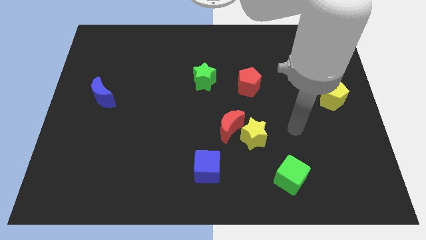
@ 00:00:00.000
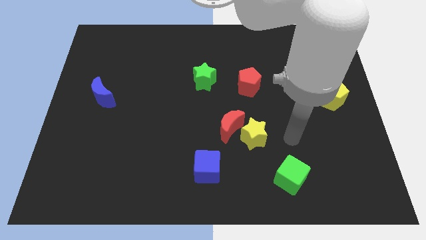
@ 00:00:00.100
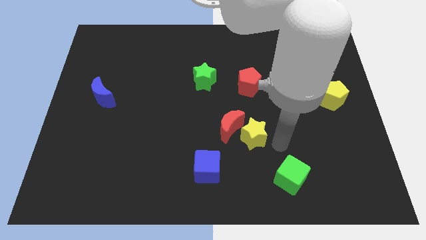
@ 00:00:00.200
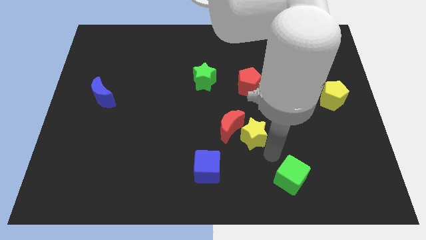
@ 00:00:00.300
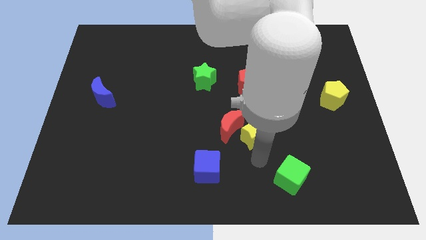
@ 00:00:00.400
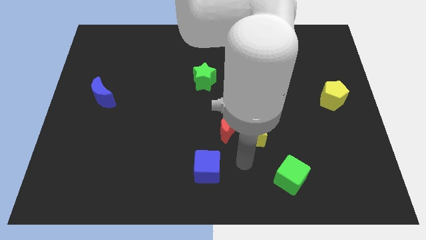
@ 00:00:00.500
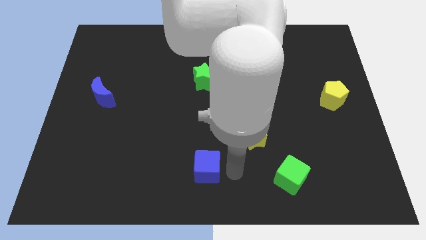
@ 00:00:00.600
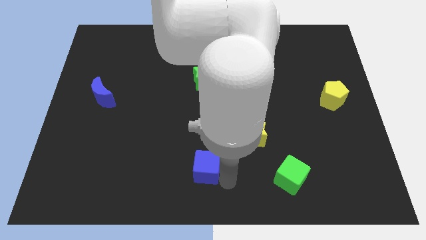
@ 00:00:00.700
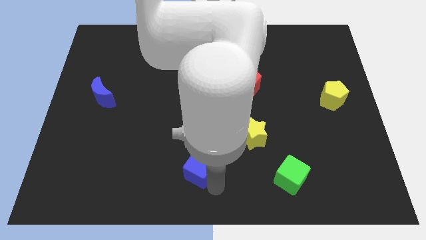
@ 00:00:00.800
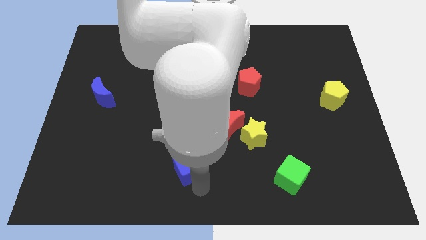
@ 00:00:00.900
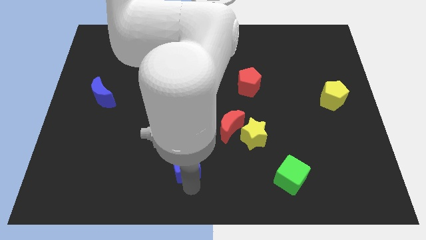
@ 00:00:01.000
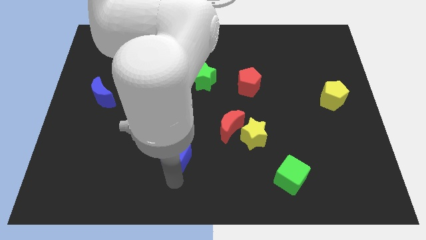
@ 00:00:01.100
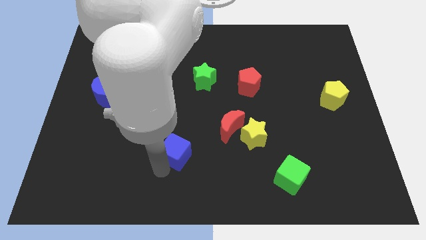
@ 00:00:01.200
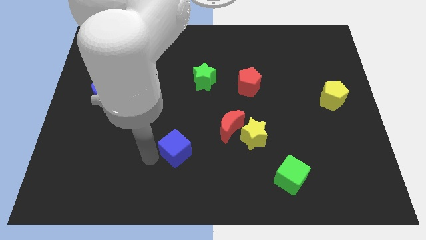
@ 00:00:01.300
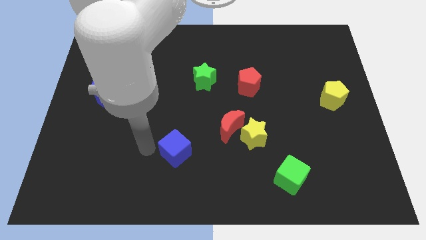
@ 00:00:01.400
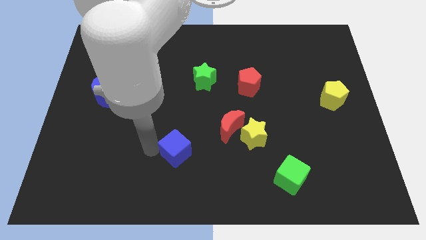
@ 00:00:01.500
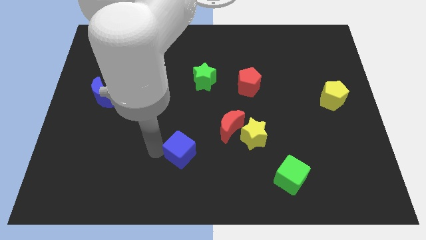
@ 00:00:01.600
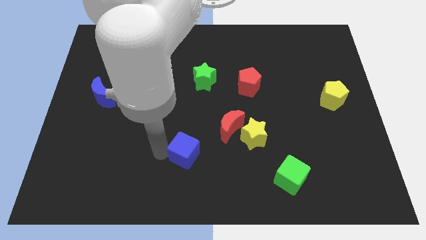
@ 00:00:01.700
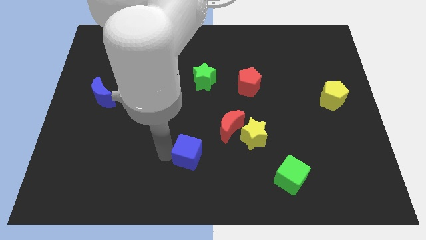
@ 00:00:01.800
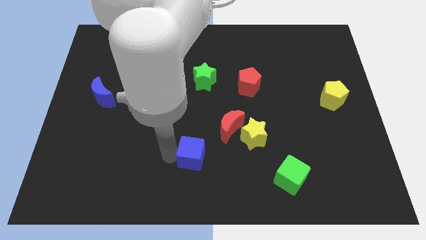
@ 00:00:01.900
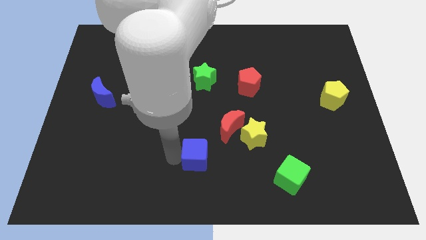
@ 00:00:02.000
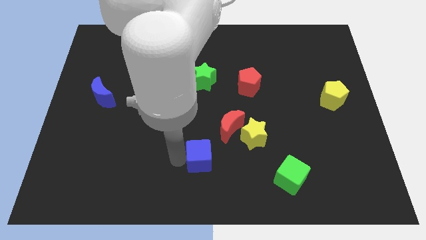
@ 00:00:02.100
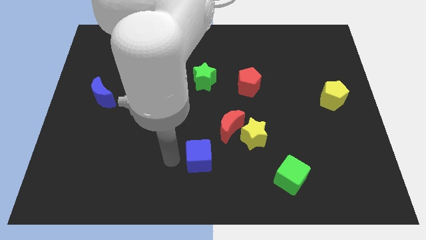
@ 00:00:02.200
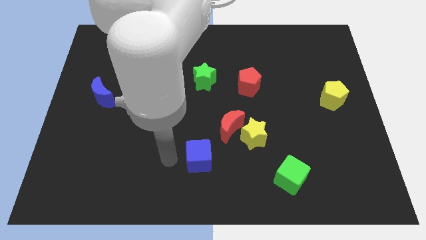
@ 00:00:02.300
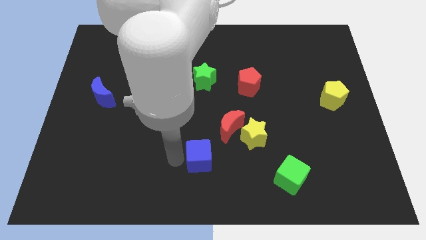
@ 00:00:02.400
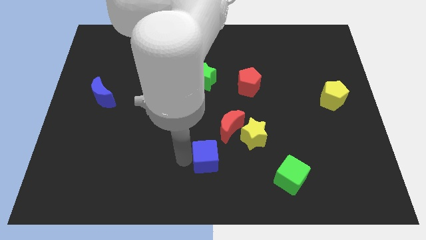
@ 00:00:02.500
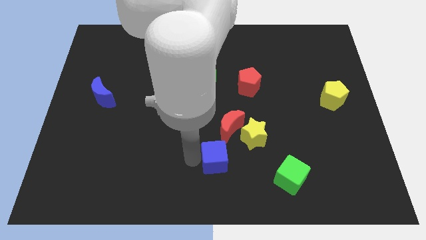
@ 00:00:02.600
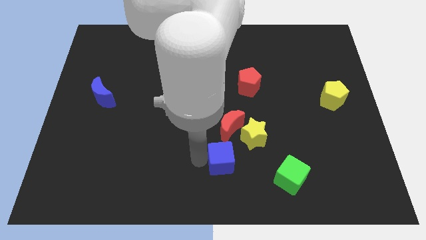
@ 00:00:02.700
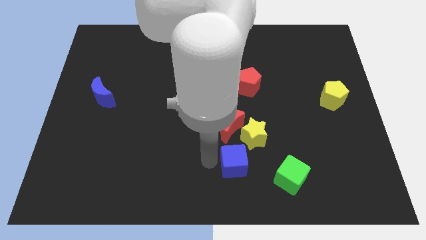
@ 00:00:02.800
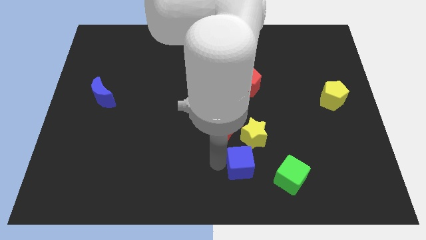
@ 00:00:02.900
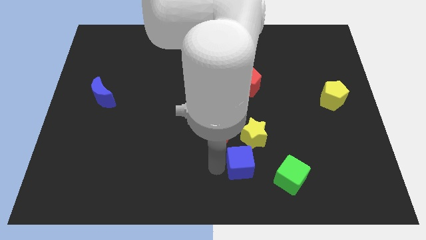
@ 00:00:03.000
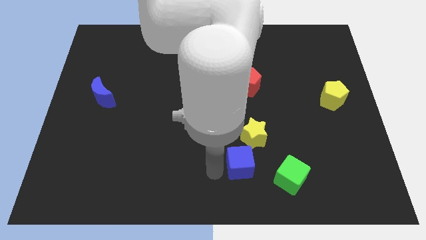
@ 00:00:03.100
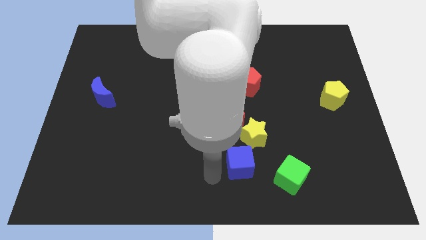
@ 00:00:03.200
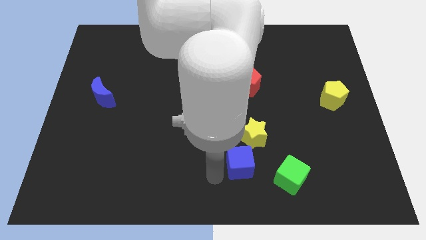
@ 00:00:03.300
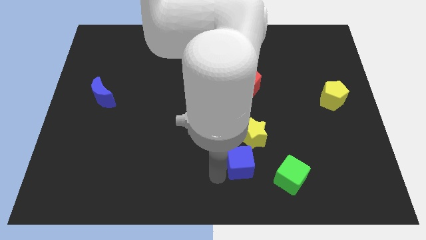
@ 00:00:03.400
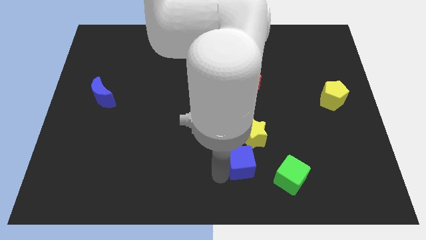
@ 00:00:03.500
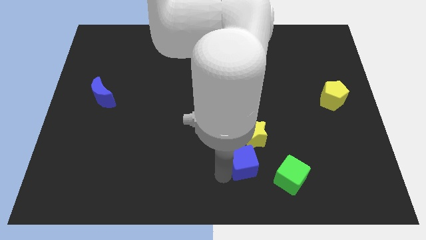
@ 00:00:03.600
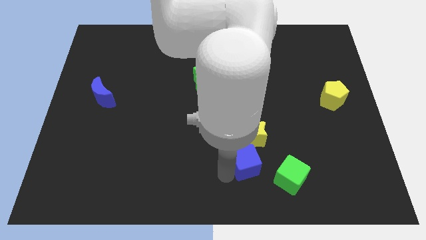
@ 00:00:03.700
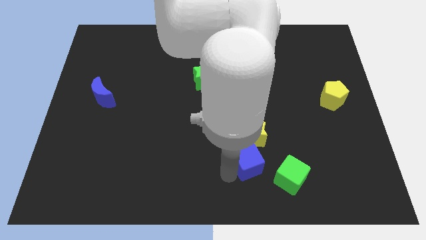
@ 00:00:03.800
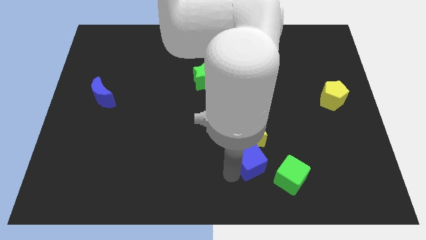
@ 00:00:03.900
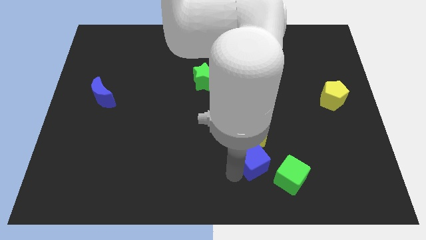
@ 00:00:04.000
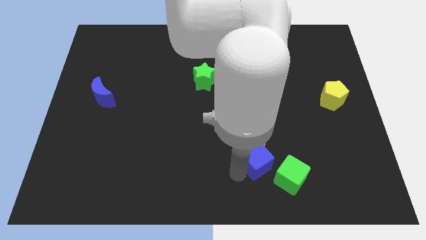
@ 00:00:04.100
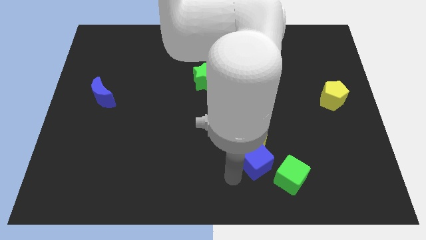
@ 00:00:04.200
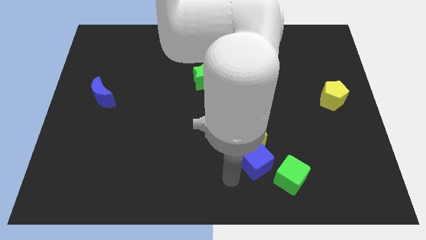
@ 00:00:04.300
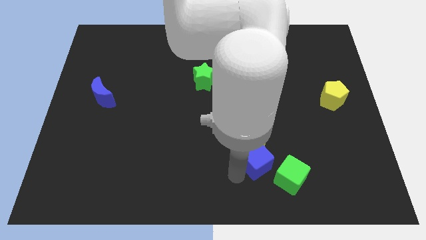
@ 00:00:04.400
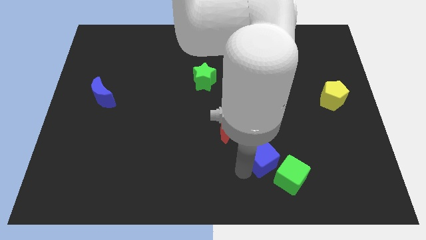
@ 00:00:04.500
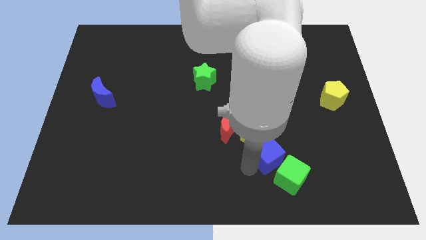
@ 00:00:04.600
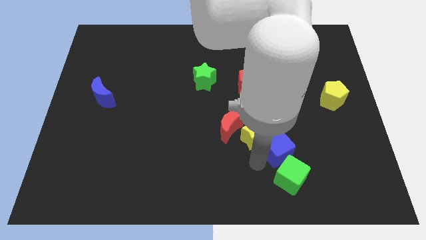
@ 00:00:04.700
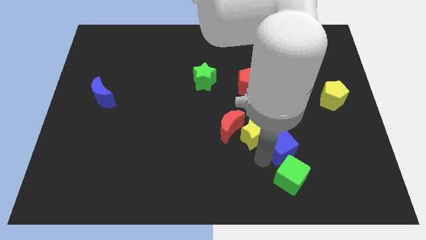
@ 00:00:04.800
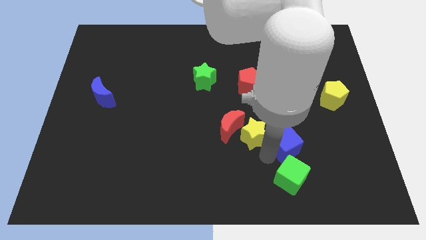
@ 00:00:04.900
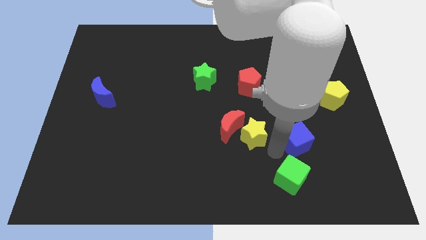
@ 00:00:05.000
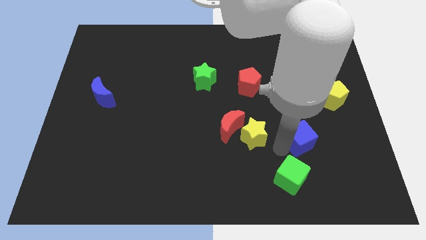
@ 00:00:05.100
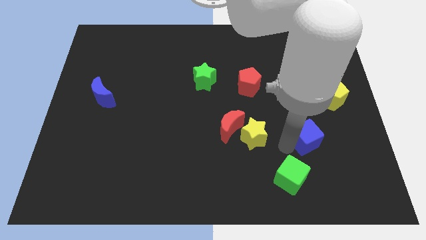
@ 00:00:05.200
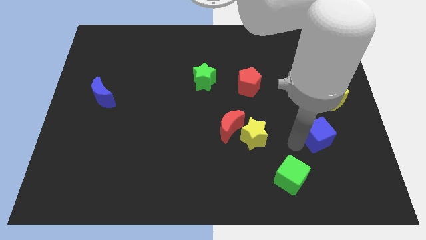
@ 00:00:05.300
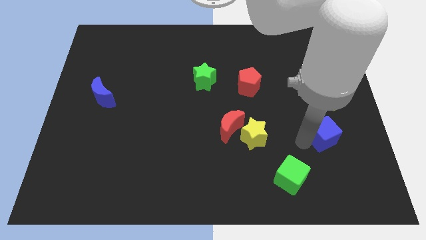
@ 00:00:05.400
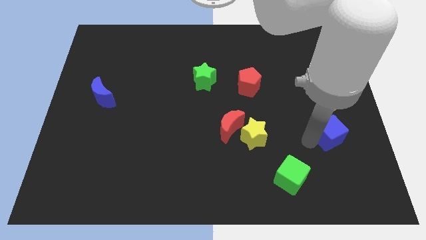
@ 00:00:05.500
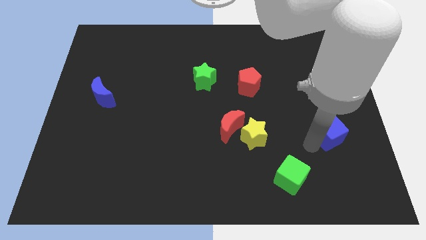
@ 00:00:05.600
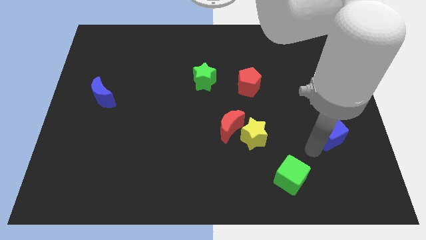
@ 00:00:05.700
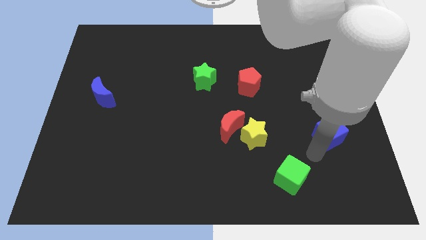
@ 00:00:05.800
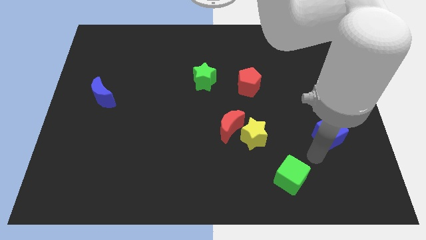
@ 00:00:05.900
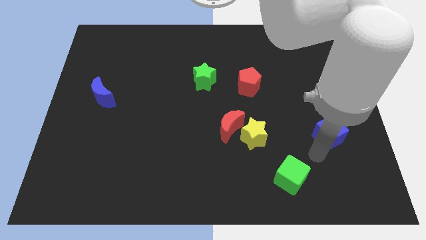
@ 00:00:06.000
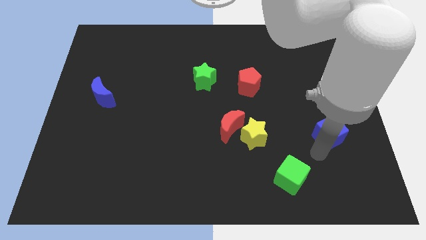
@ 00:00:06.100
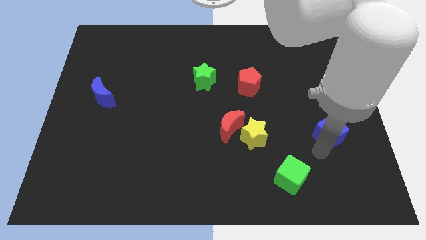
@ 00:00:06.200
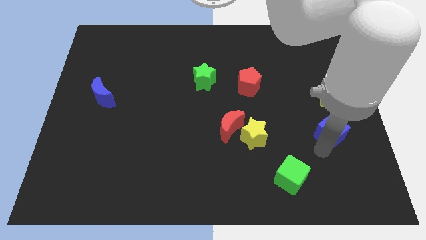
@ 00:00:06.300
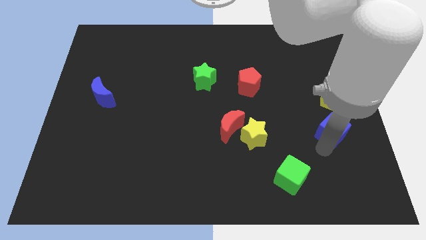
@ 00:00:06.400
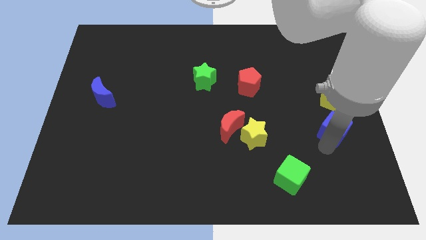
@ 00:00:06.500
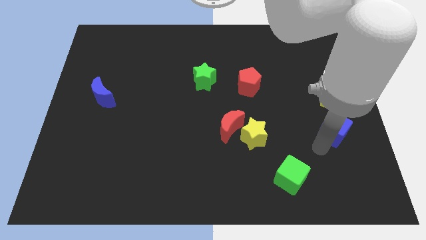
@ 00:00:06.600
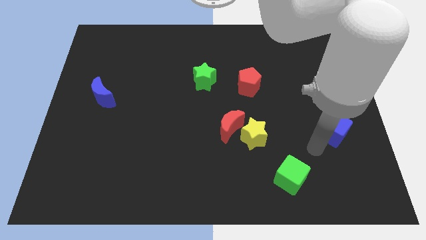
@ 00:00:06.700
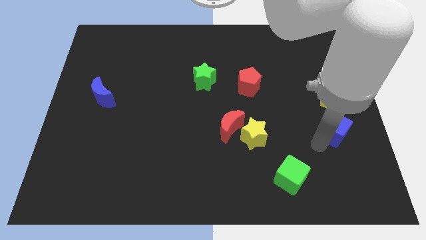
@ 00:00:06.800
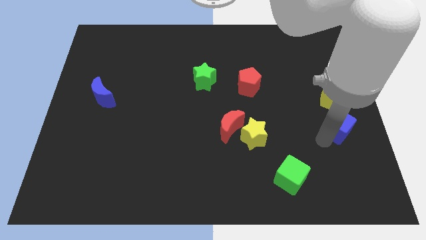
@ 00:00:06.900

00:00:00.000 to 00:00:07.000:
move the blue cube to the center right
